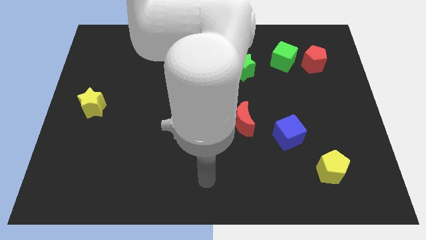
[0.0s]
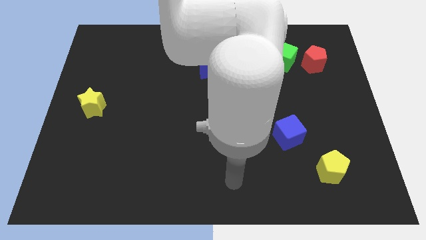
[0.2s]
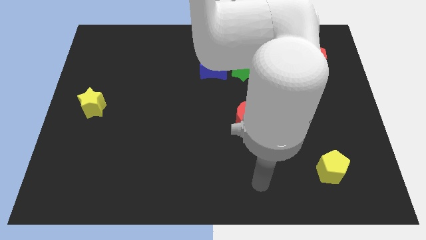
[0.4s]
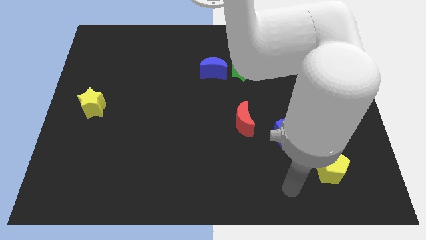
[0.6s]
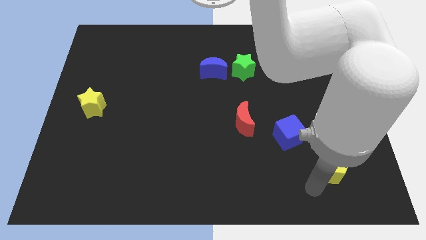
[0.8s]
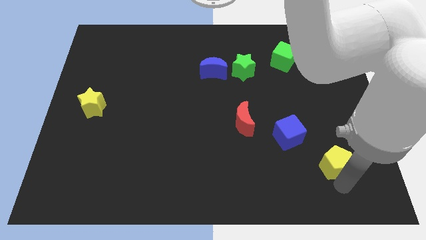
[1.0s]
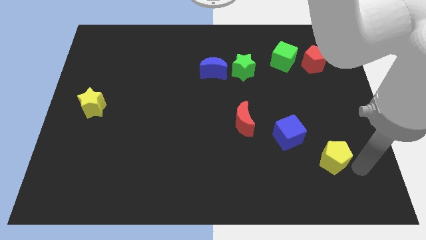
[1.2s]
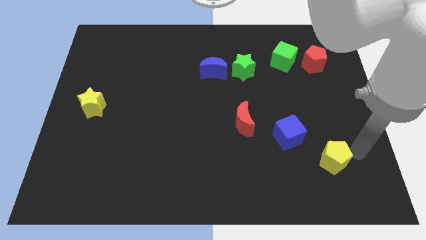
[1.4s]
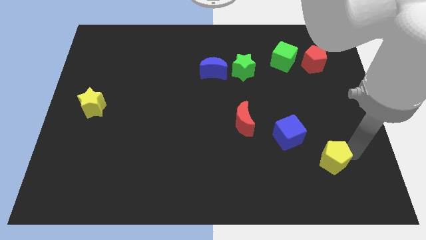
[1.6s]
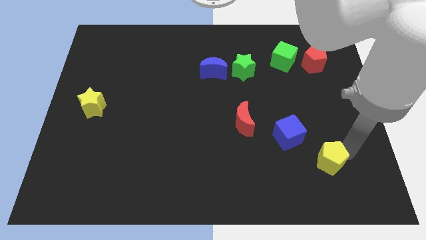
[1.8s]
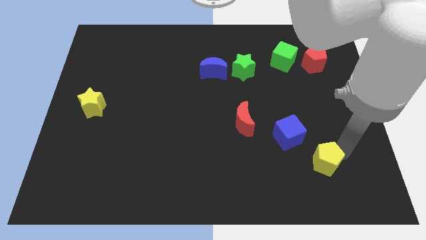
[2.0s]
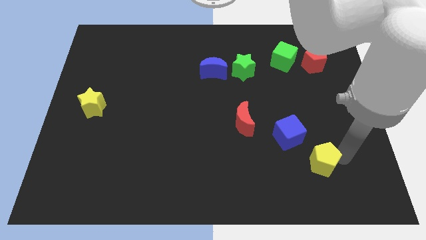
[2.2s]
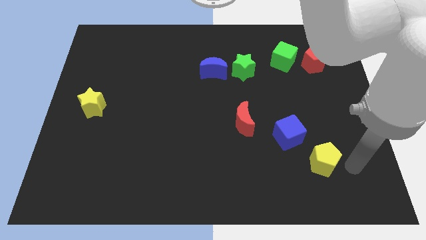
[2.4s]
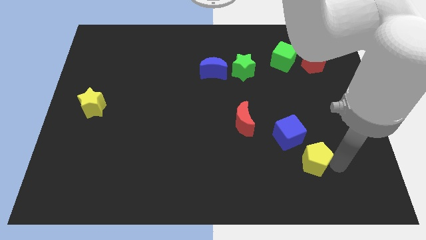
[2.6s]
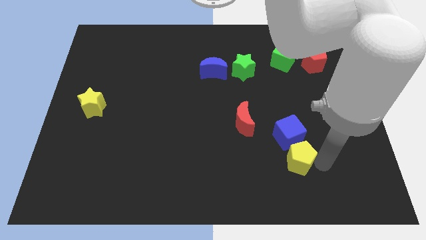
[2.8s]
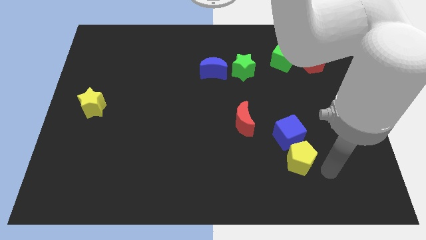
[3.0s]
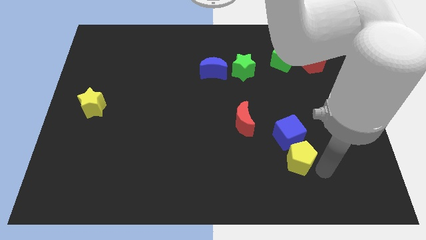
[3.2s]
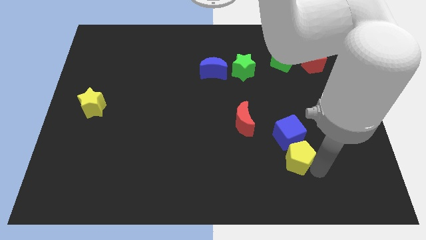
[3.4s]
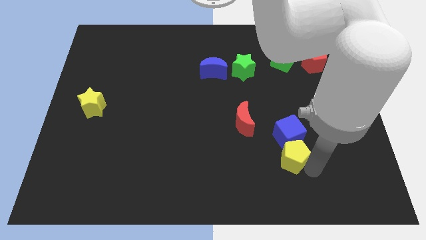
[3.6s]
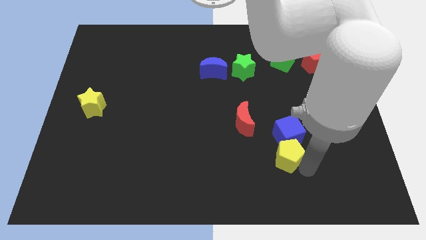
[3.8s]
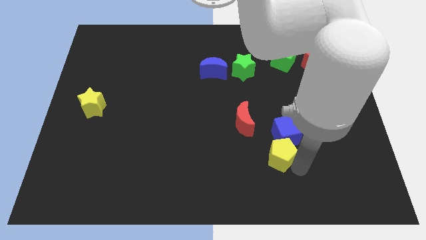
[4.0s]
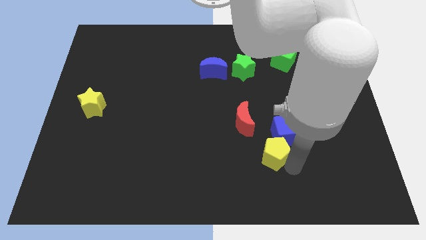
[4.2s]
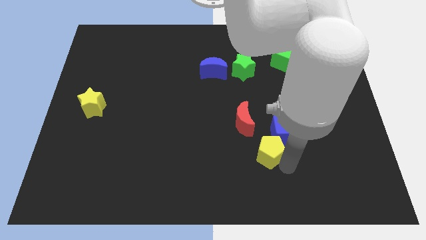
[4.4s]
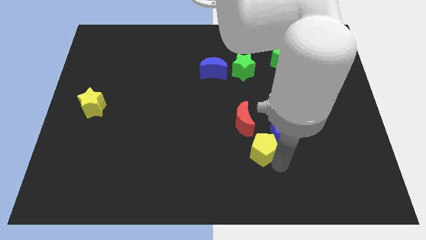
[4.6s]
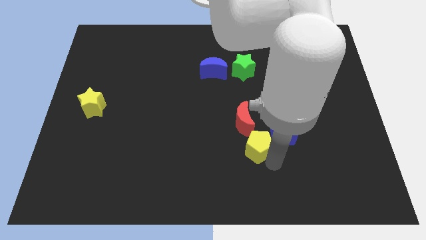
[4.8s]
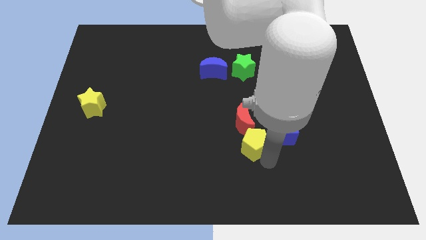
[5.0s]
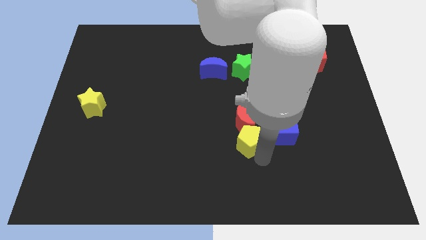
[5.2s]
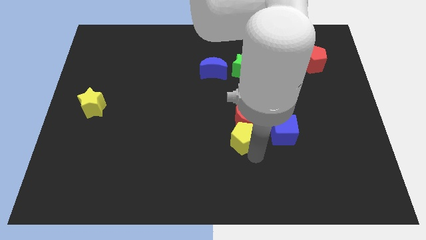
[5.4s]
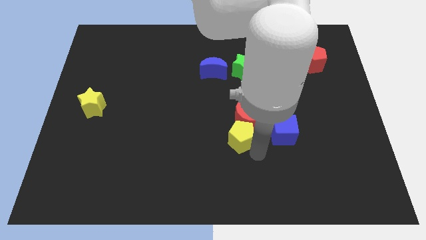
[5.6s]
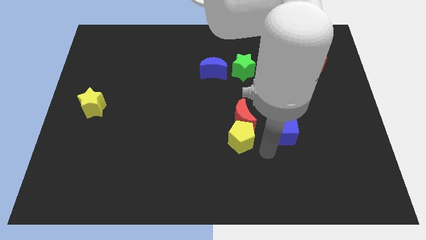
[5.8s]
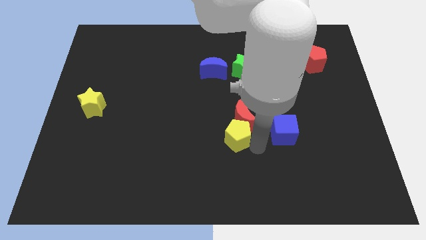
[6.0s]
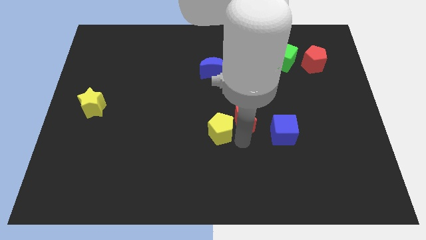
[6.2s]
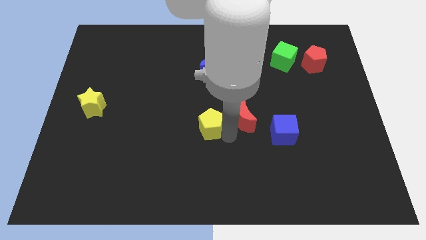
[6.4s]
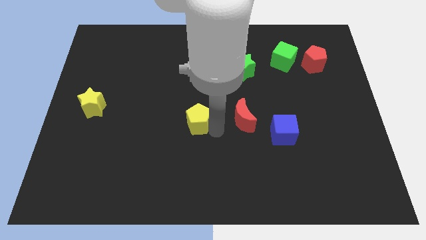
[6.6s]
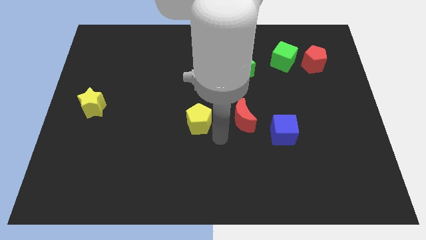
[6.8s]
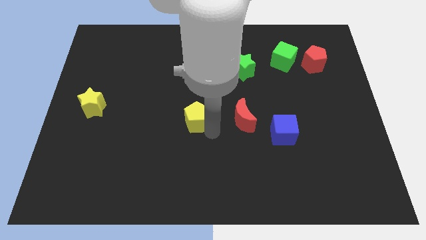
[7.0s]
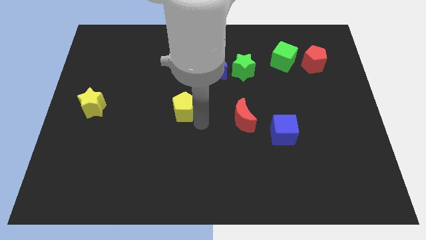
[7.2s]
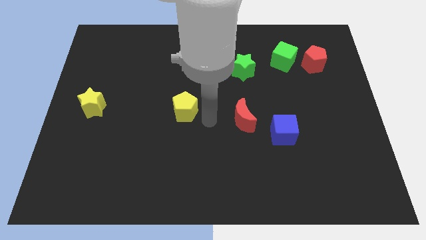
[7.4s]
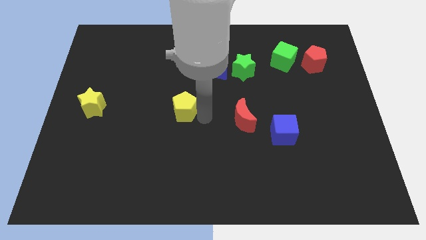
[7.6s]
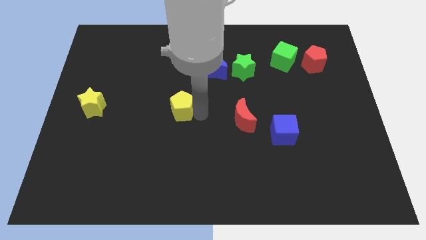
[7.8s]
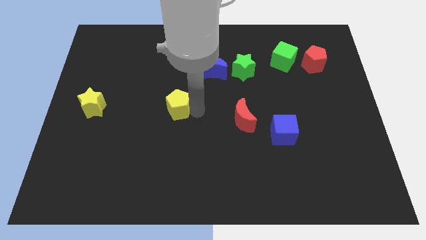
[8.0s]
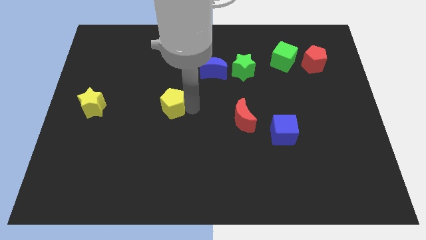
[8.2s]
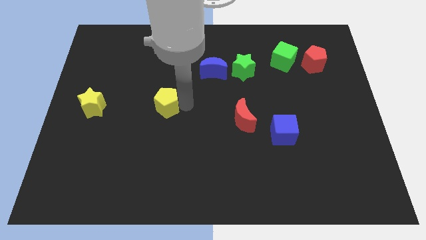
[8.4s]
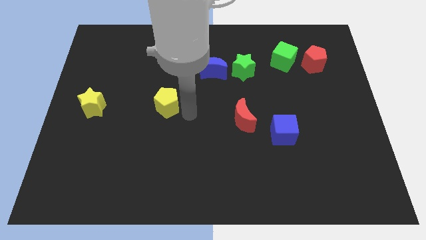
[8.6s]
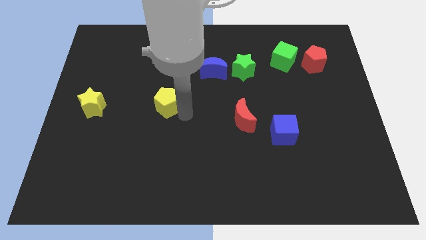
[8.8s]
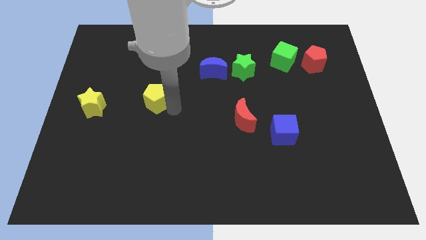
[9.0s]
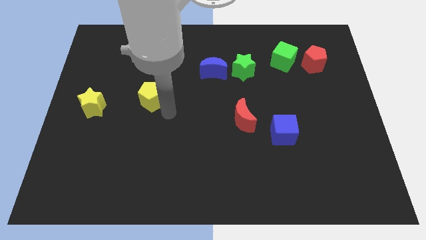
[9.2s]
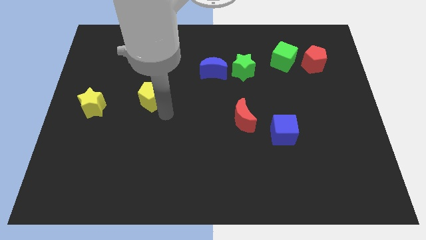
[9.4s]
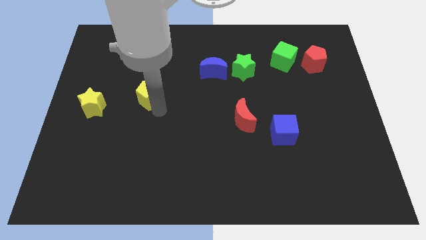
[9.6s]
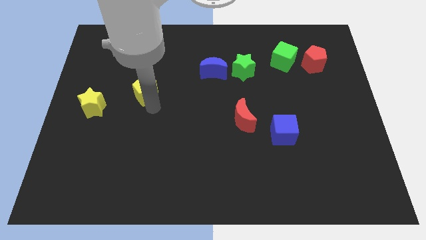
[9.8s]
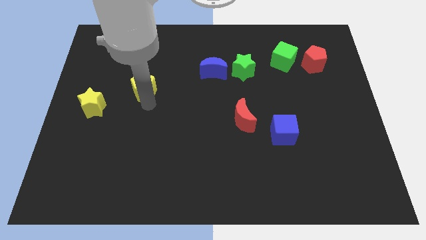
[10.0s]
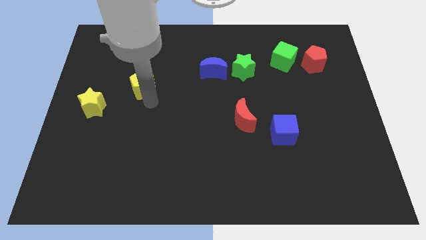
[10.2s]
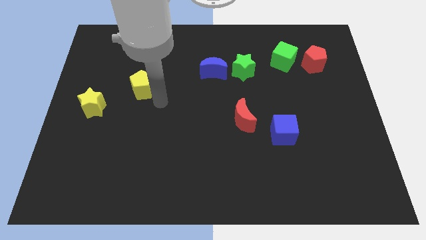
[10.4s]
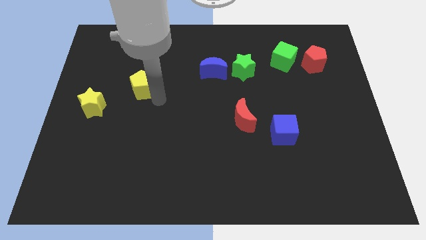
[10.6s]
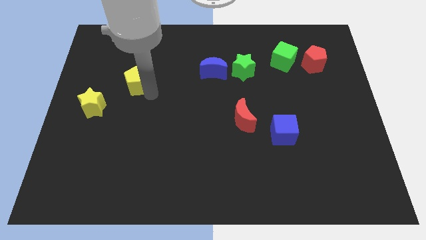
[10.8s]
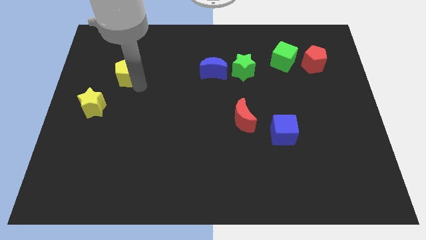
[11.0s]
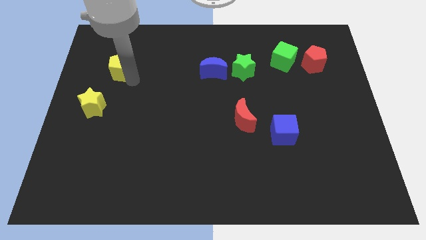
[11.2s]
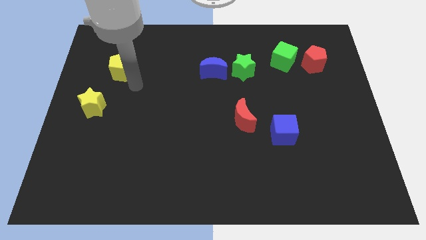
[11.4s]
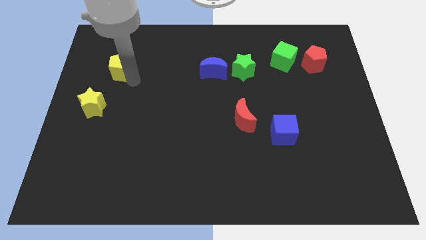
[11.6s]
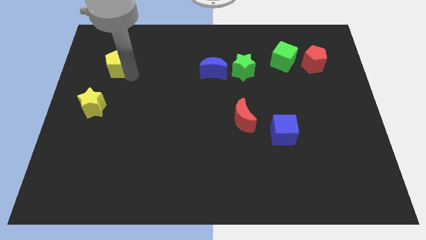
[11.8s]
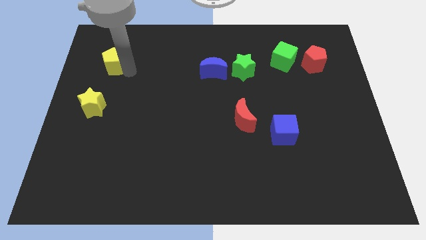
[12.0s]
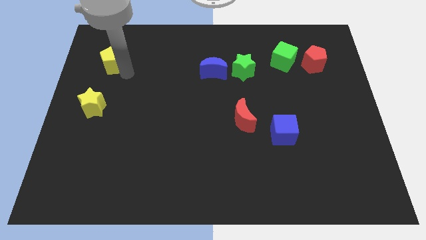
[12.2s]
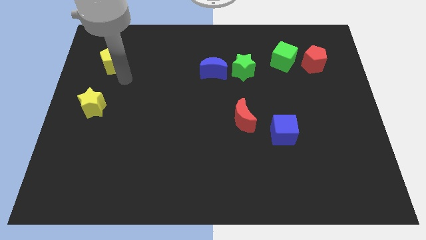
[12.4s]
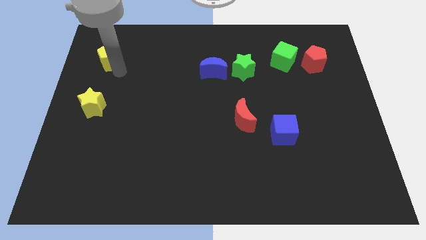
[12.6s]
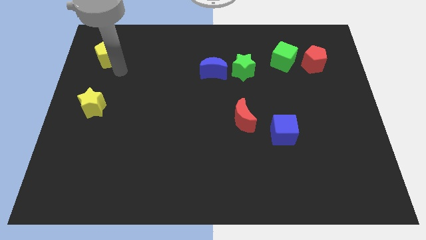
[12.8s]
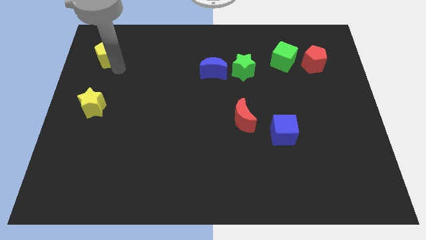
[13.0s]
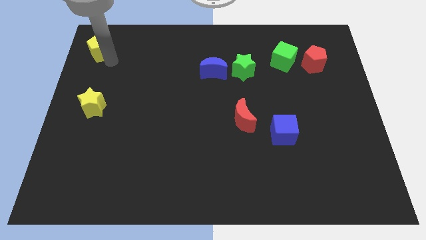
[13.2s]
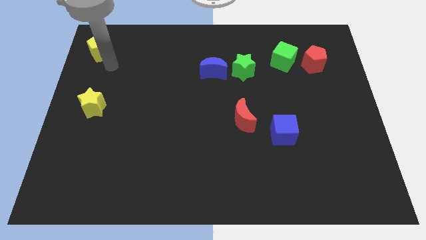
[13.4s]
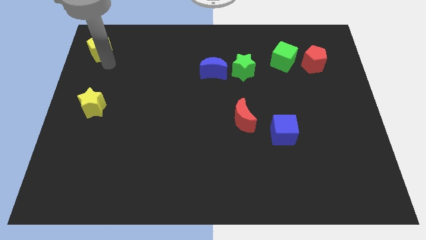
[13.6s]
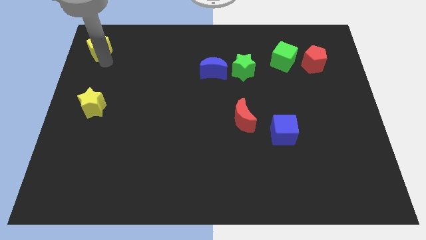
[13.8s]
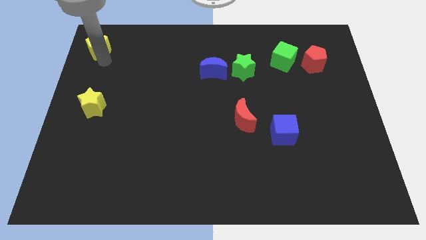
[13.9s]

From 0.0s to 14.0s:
move the yellow pentagon to the top left
